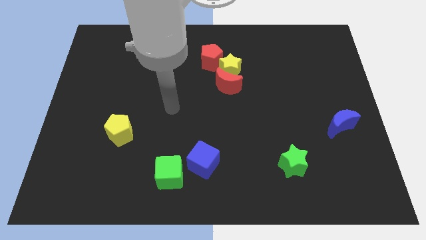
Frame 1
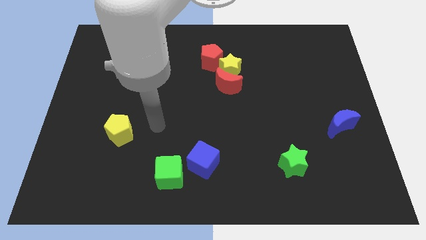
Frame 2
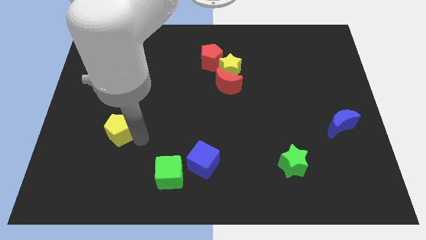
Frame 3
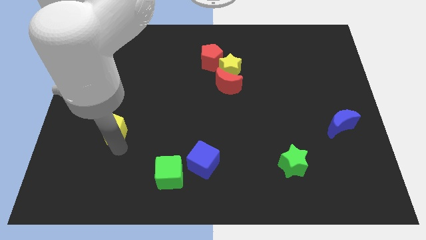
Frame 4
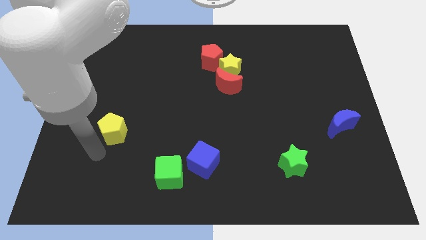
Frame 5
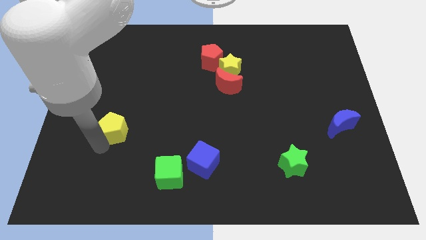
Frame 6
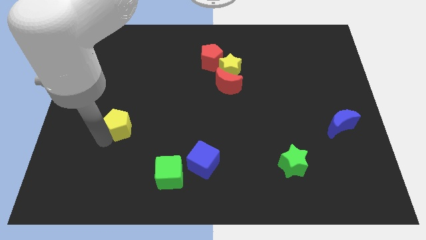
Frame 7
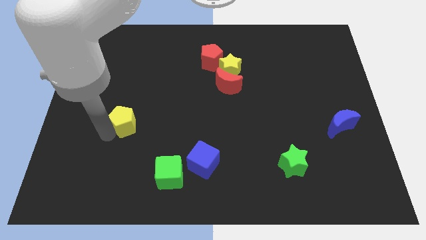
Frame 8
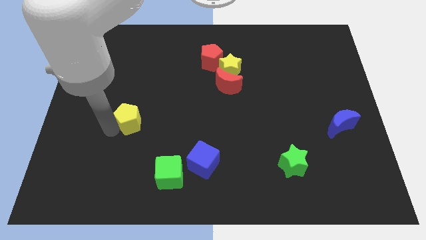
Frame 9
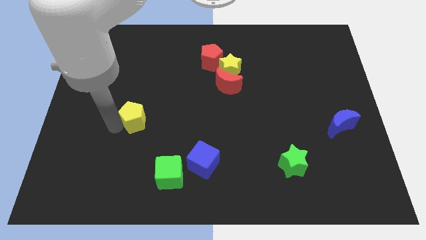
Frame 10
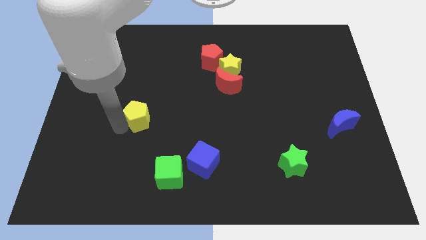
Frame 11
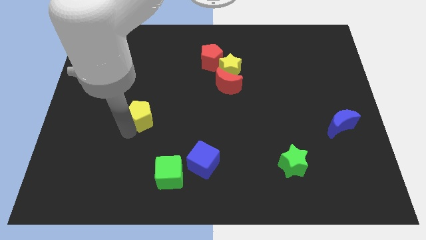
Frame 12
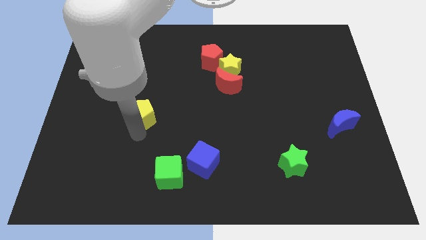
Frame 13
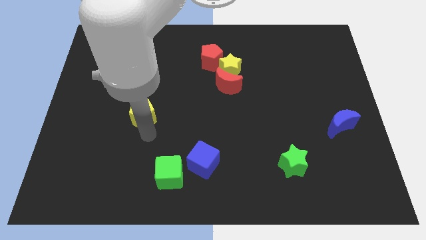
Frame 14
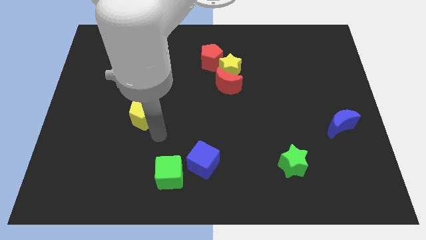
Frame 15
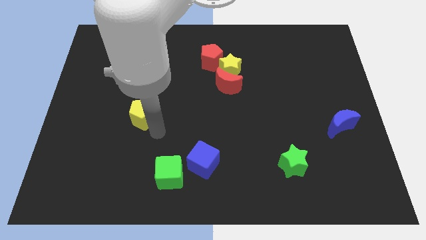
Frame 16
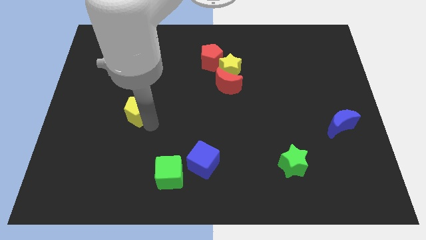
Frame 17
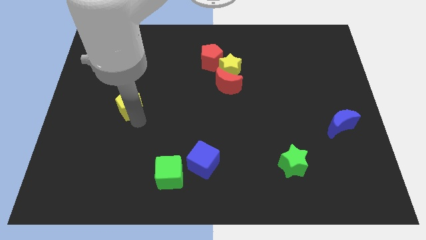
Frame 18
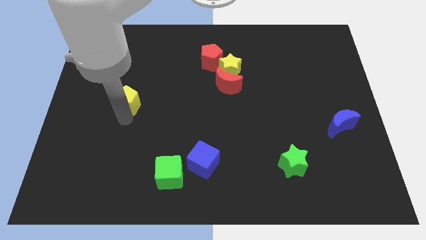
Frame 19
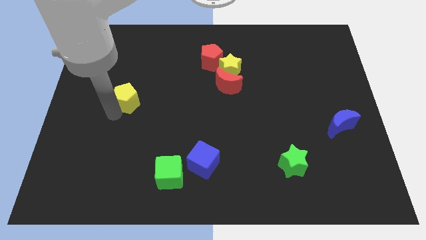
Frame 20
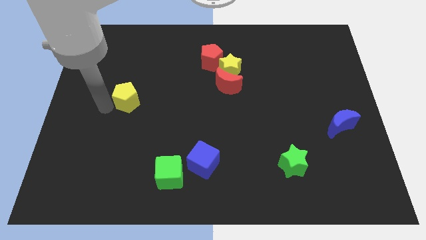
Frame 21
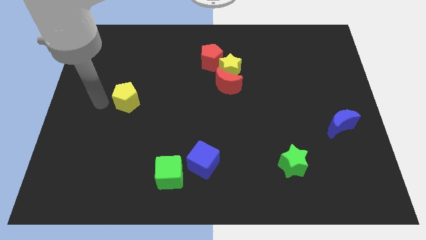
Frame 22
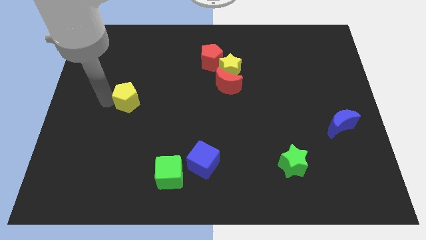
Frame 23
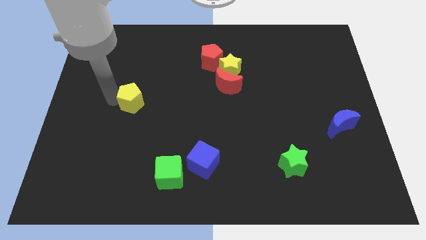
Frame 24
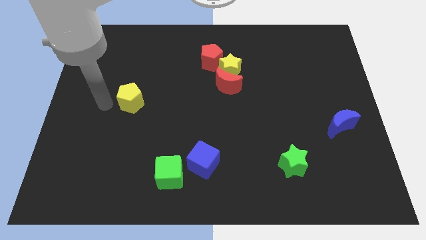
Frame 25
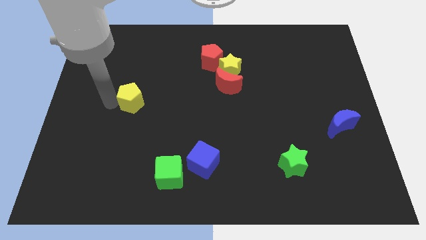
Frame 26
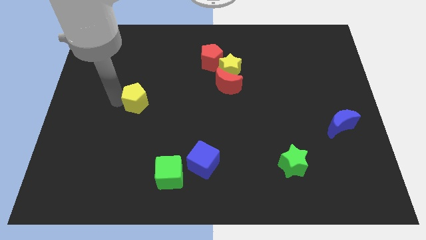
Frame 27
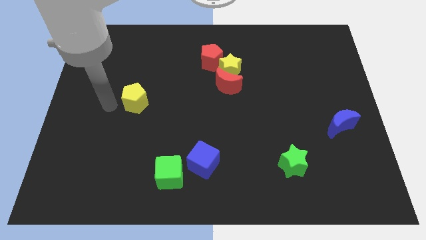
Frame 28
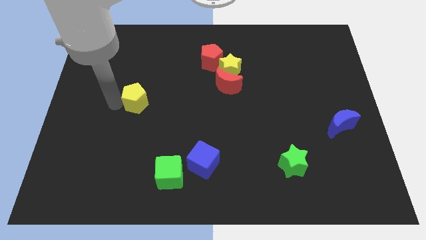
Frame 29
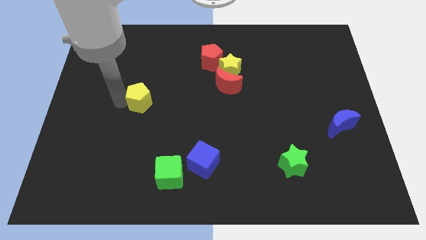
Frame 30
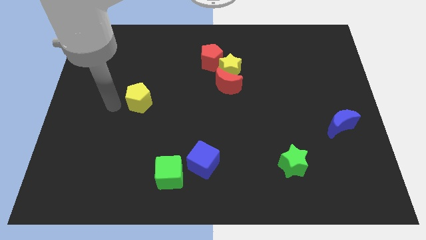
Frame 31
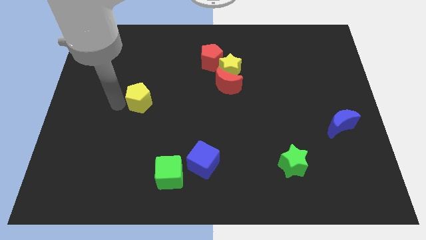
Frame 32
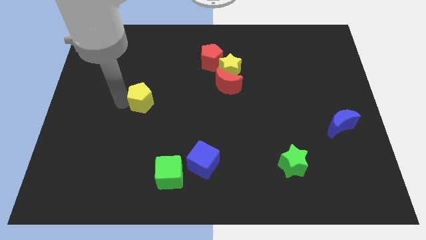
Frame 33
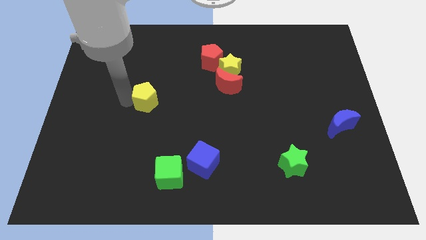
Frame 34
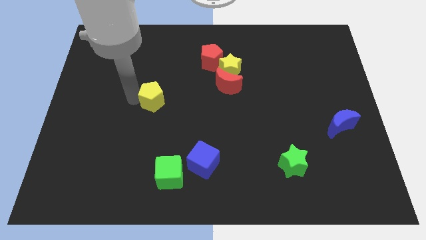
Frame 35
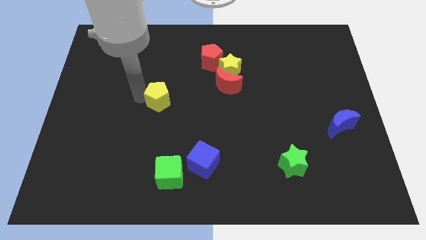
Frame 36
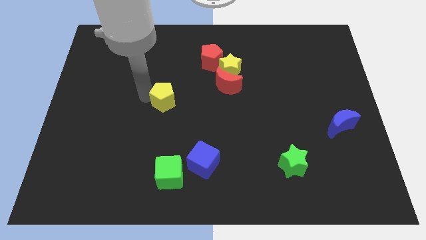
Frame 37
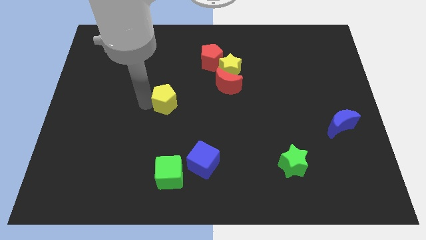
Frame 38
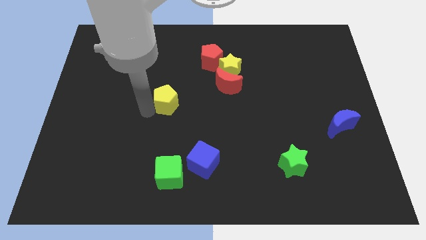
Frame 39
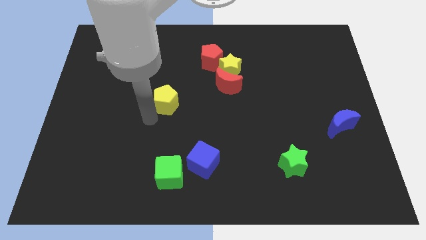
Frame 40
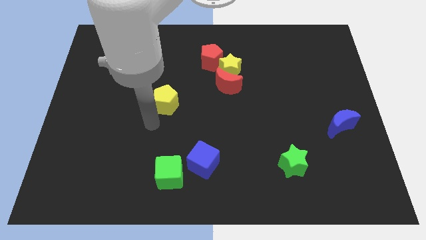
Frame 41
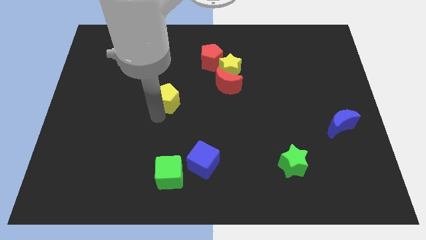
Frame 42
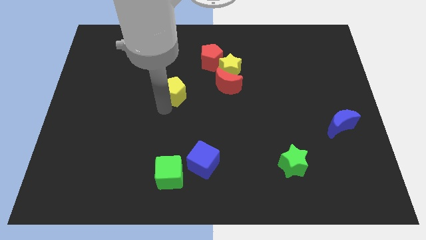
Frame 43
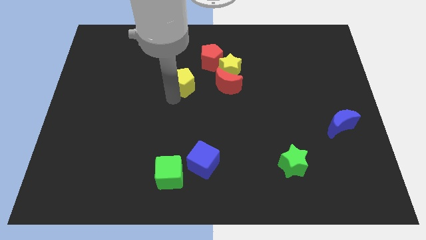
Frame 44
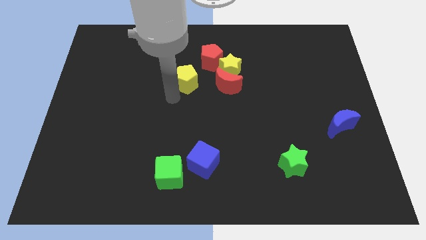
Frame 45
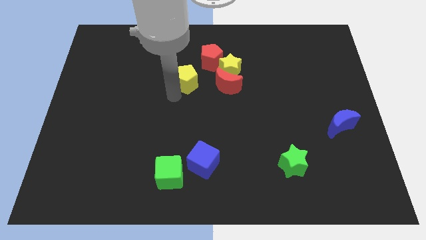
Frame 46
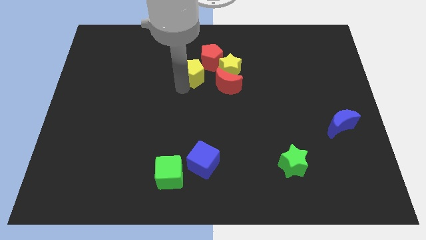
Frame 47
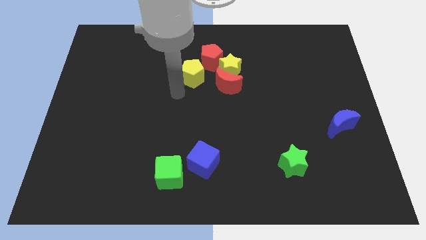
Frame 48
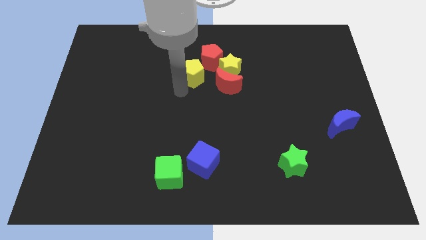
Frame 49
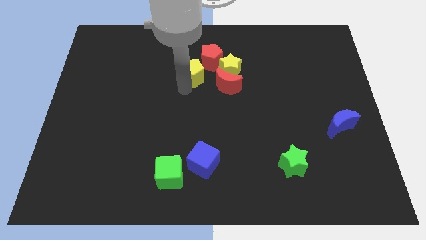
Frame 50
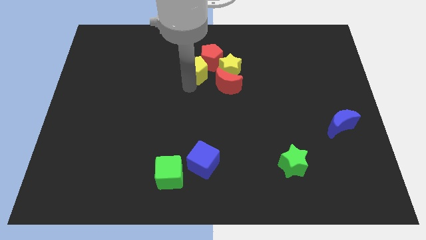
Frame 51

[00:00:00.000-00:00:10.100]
put the yellow pentagon towards the red pentagon

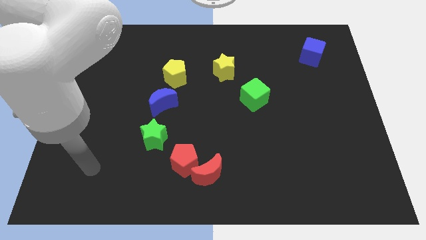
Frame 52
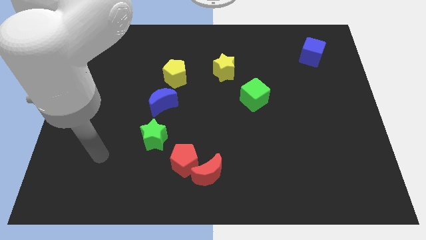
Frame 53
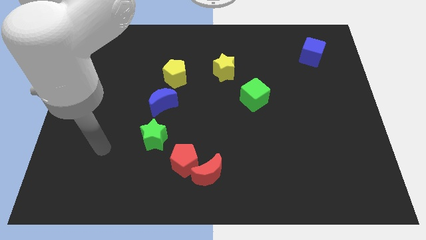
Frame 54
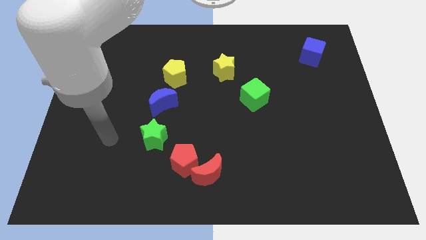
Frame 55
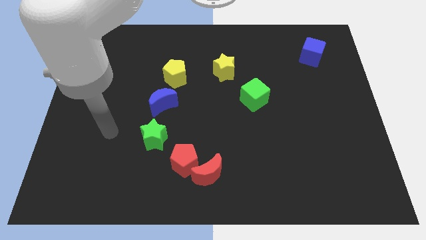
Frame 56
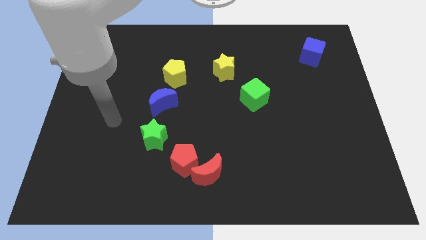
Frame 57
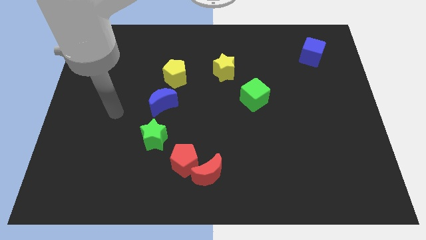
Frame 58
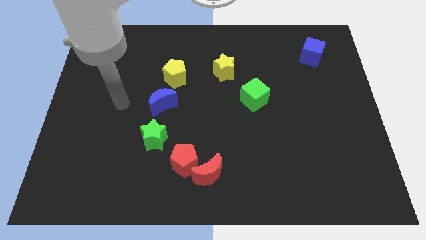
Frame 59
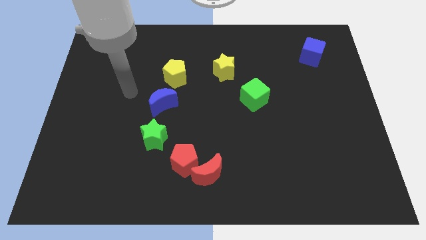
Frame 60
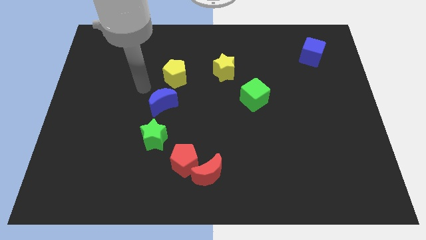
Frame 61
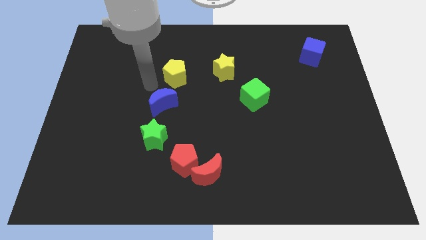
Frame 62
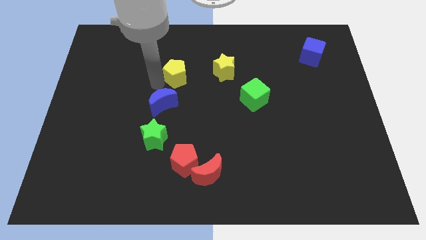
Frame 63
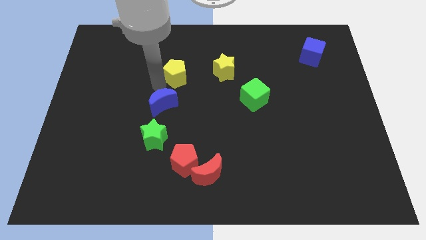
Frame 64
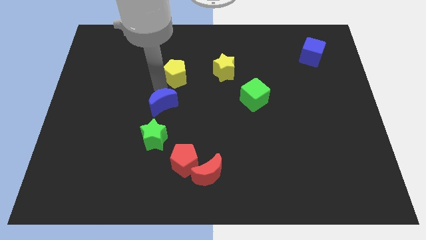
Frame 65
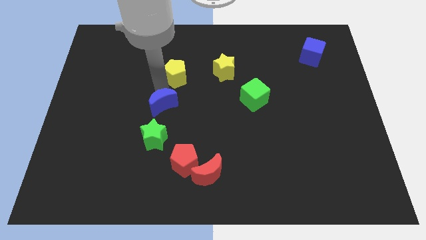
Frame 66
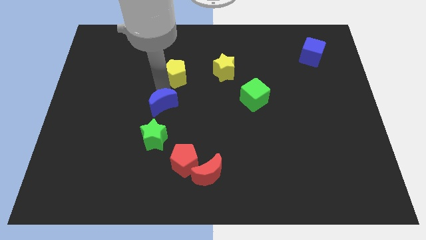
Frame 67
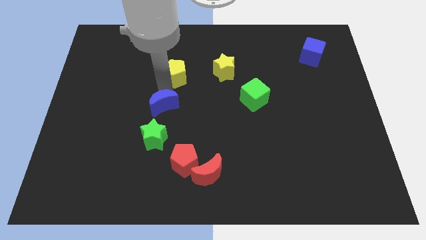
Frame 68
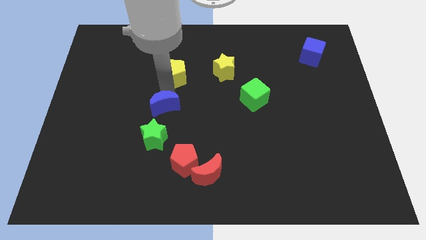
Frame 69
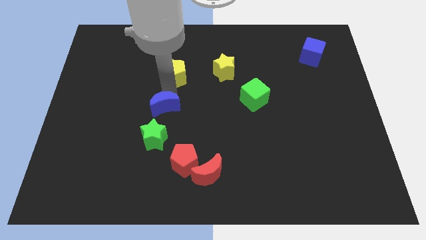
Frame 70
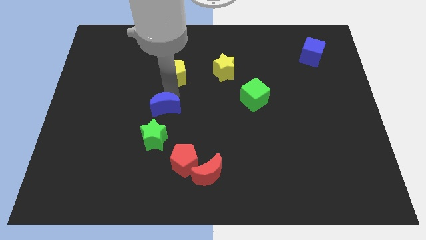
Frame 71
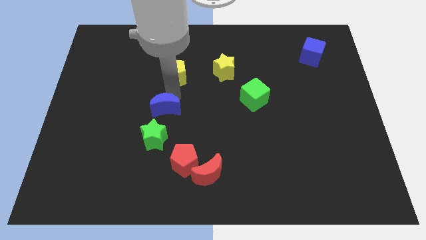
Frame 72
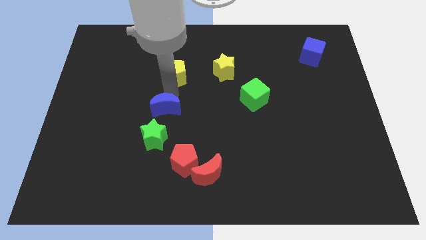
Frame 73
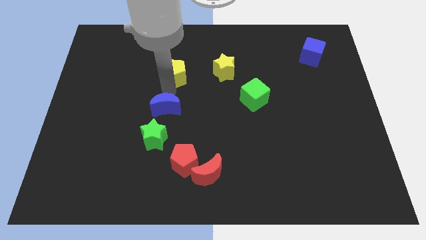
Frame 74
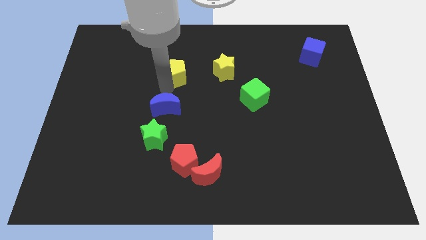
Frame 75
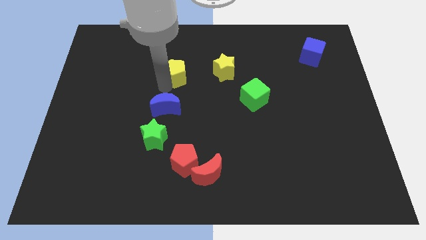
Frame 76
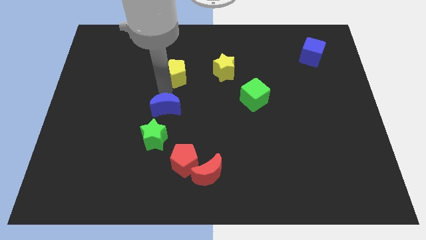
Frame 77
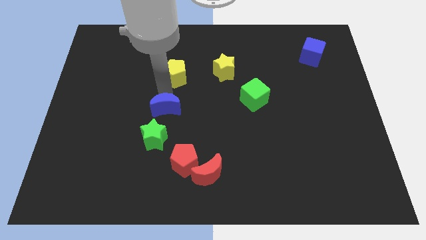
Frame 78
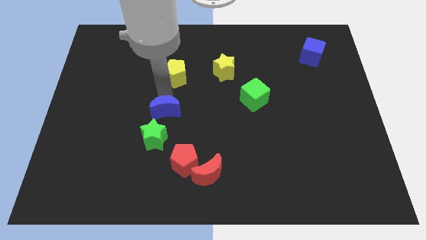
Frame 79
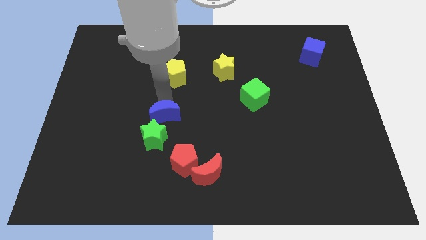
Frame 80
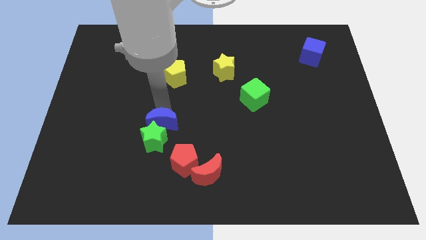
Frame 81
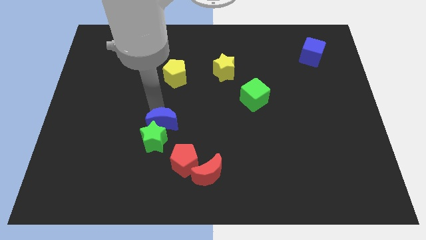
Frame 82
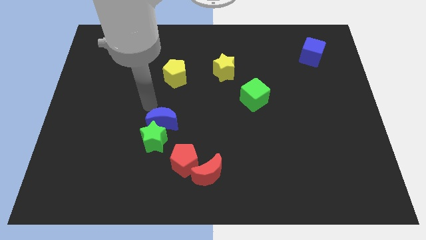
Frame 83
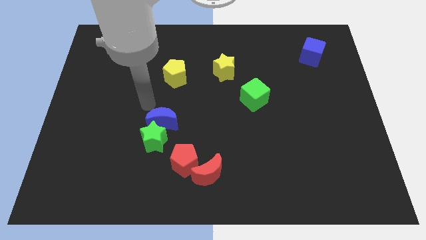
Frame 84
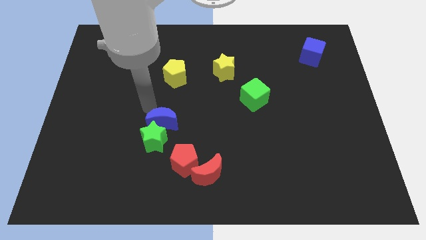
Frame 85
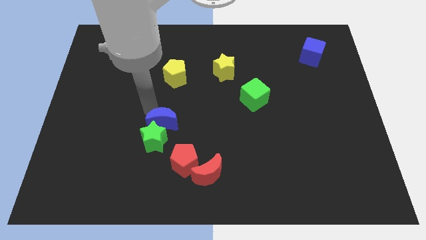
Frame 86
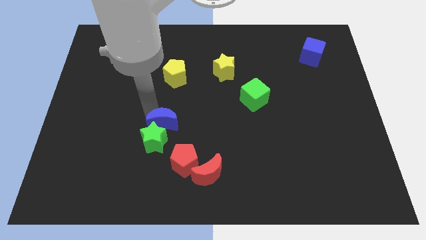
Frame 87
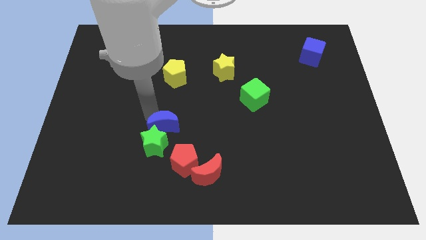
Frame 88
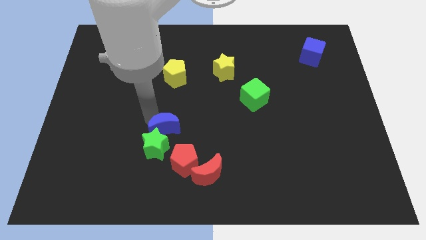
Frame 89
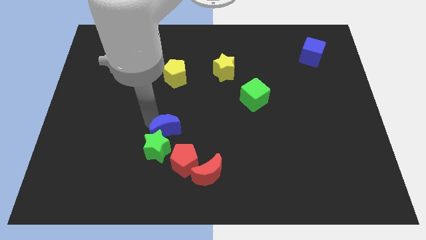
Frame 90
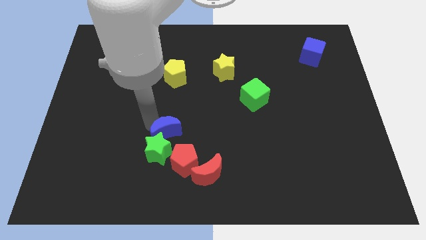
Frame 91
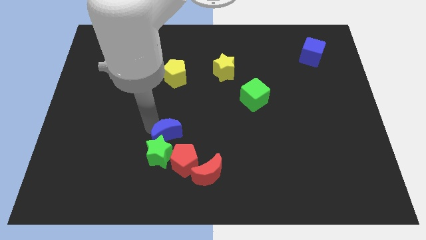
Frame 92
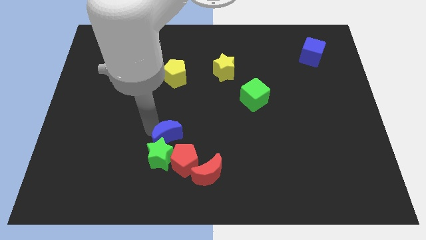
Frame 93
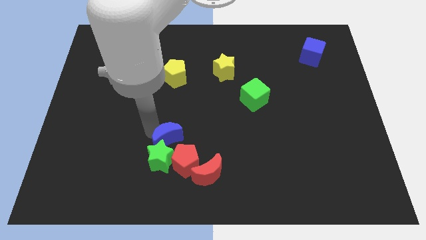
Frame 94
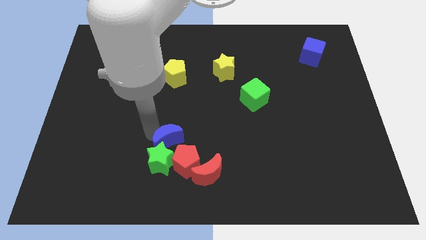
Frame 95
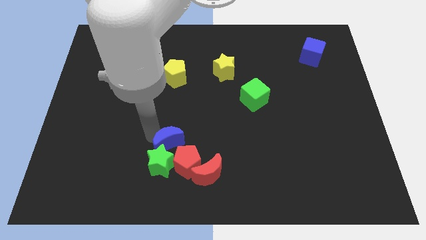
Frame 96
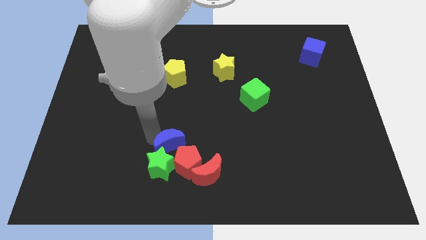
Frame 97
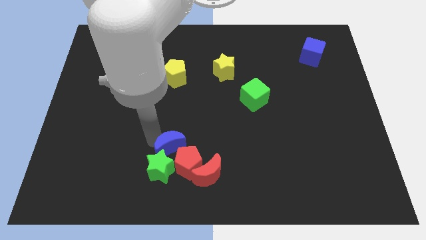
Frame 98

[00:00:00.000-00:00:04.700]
slide the blue moon to the red pentagon
